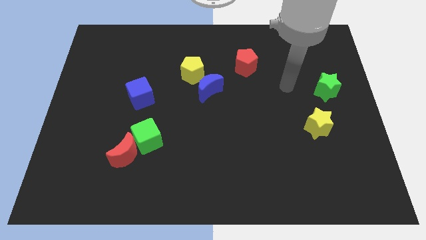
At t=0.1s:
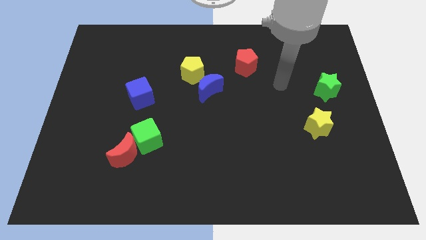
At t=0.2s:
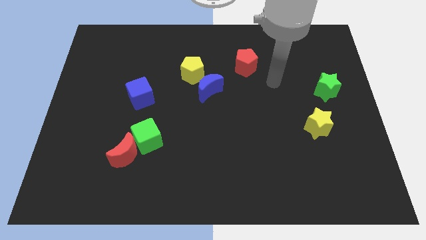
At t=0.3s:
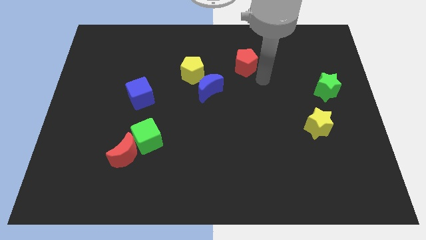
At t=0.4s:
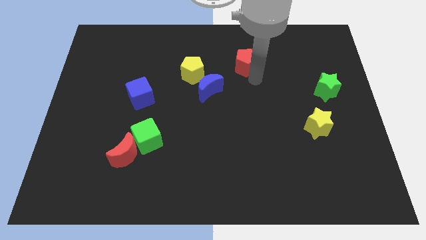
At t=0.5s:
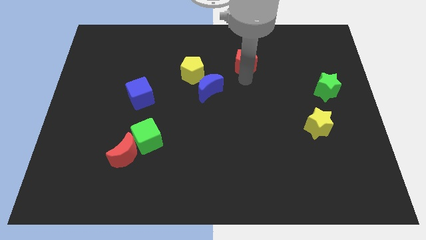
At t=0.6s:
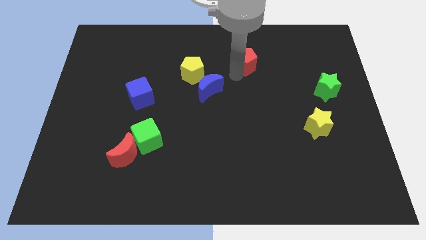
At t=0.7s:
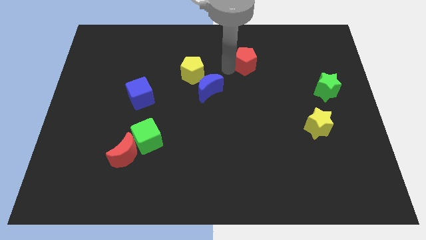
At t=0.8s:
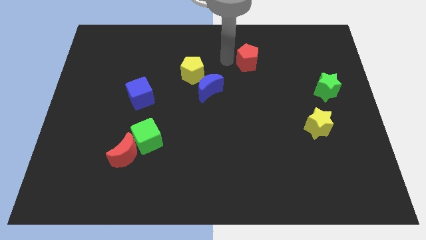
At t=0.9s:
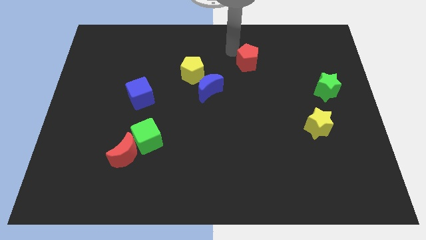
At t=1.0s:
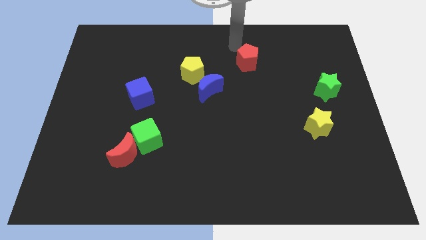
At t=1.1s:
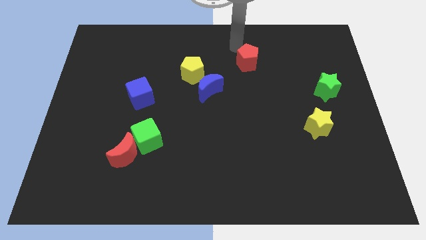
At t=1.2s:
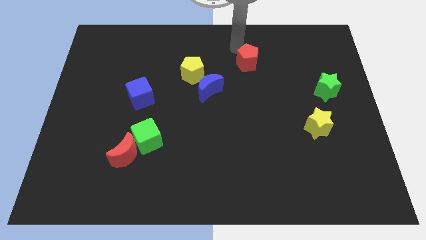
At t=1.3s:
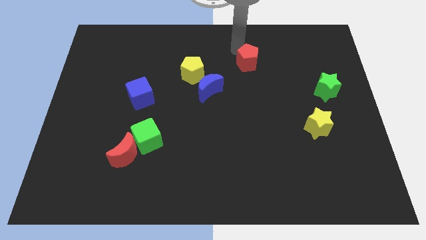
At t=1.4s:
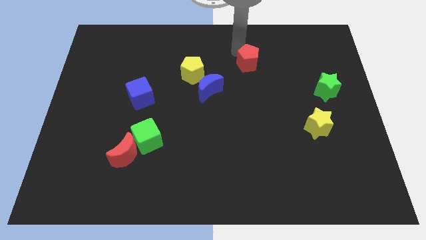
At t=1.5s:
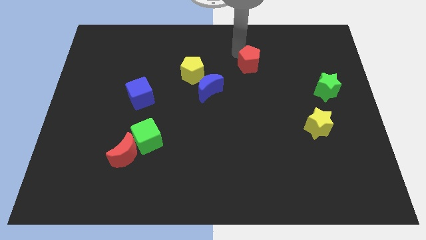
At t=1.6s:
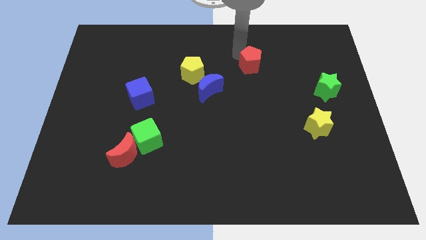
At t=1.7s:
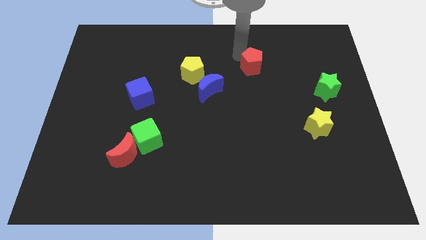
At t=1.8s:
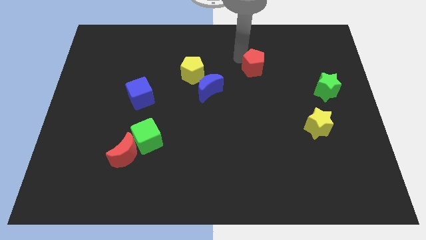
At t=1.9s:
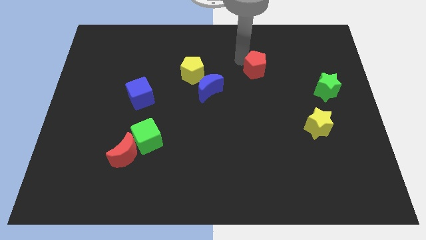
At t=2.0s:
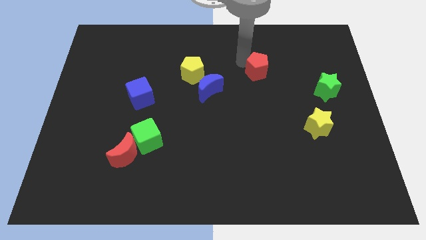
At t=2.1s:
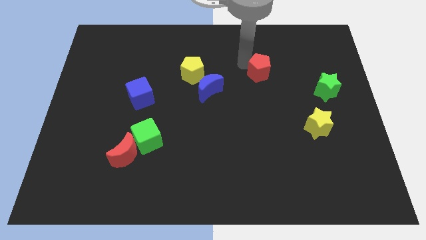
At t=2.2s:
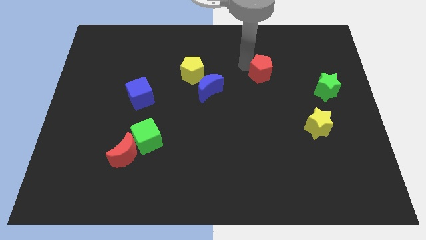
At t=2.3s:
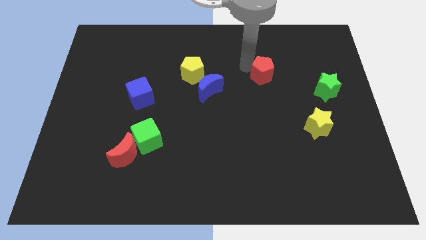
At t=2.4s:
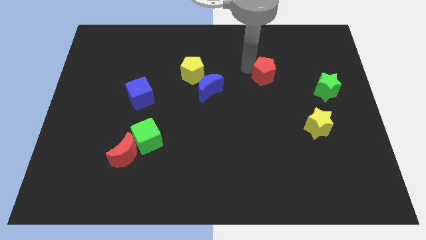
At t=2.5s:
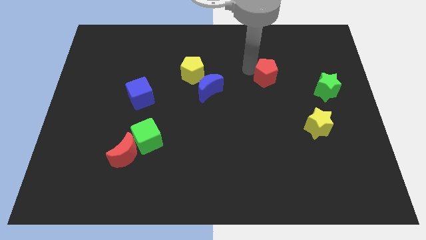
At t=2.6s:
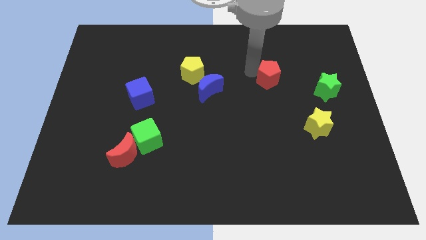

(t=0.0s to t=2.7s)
push the red pentagon down and to the right a little bit

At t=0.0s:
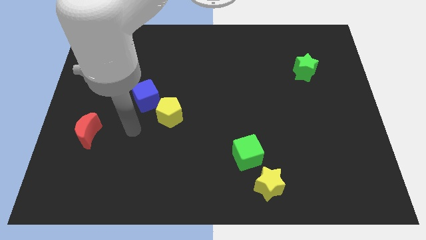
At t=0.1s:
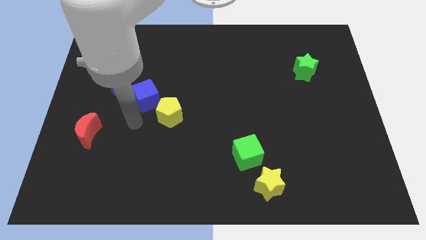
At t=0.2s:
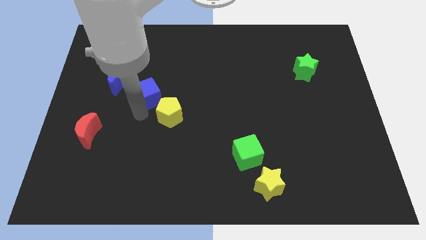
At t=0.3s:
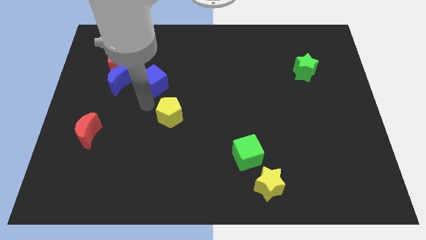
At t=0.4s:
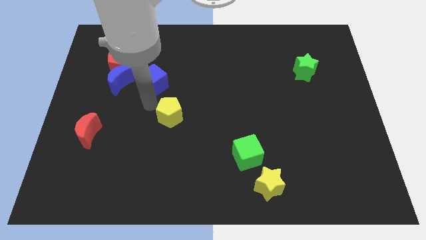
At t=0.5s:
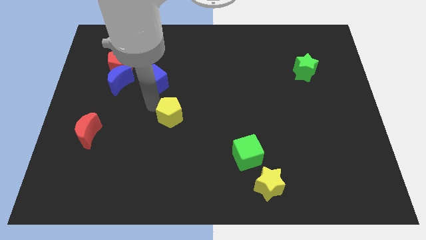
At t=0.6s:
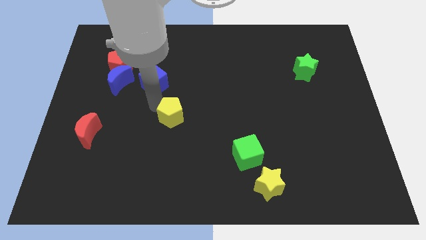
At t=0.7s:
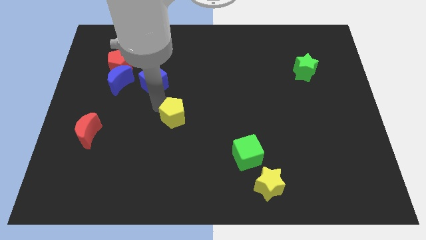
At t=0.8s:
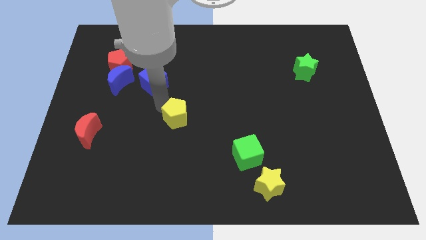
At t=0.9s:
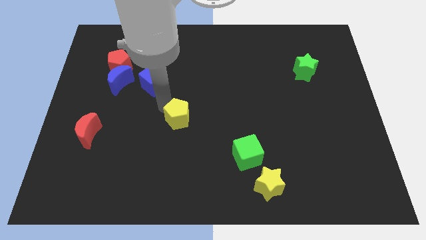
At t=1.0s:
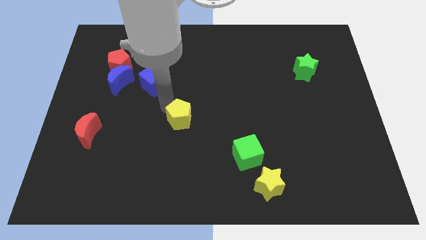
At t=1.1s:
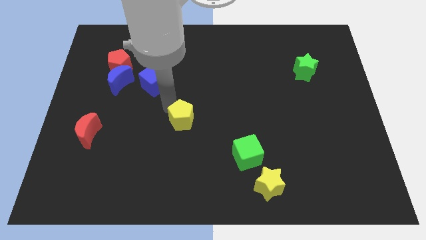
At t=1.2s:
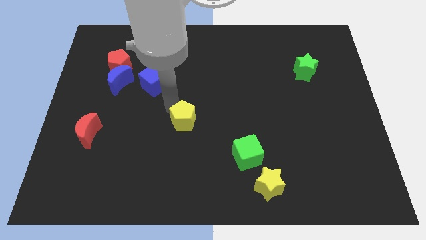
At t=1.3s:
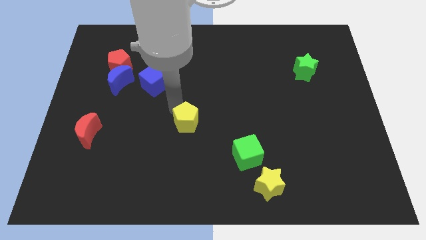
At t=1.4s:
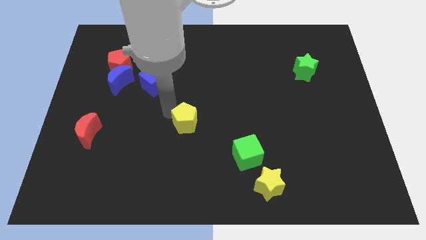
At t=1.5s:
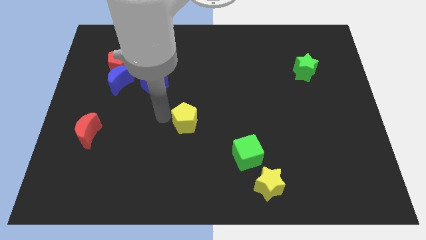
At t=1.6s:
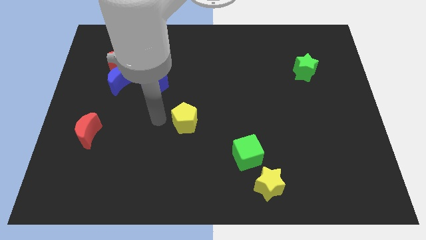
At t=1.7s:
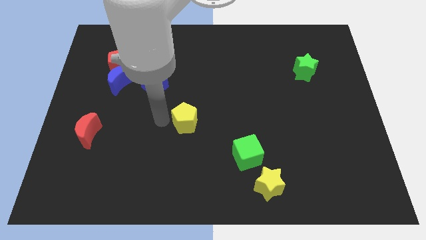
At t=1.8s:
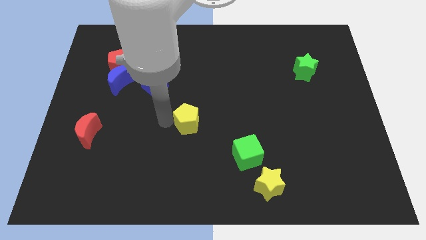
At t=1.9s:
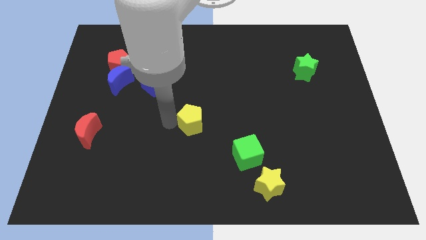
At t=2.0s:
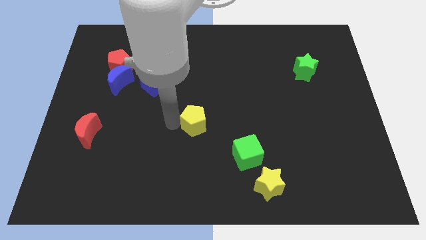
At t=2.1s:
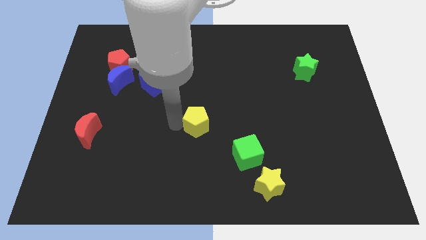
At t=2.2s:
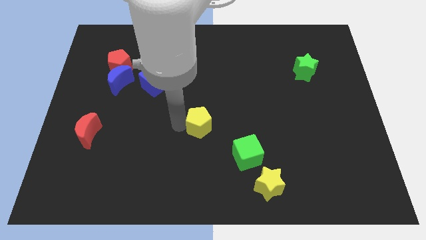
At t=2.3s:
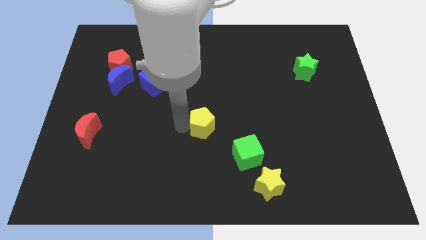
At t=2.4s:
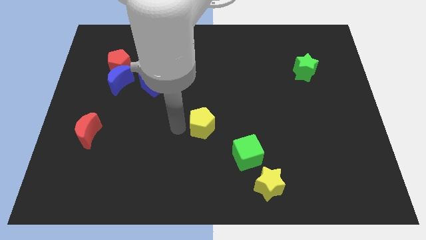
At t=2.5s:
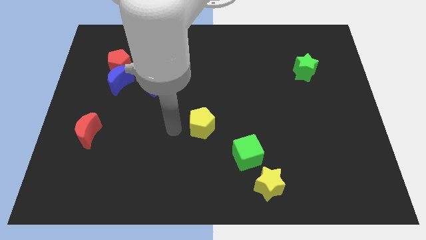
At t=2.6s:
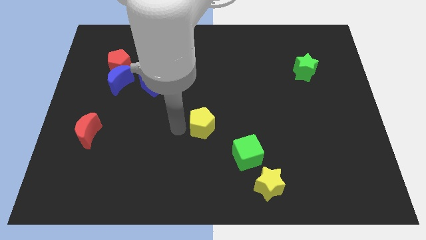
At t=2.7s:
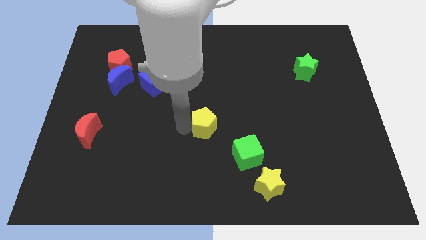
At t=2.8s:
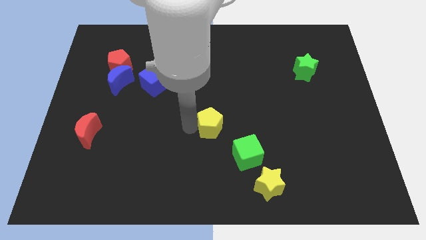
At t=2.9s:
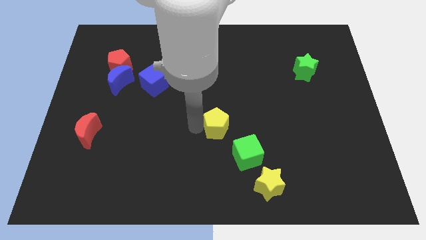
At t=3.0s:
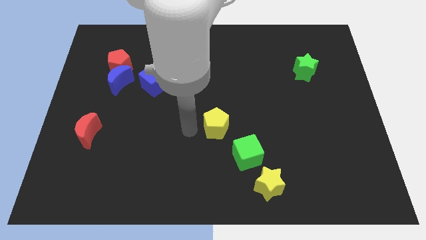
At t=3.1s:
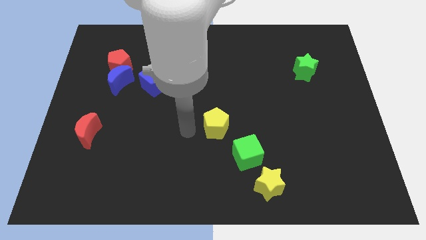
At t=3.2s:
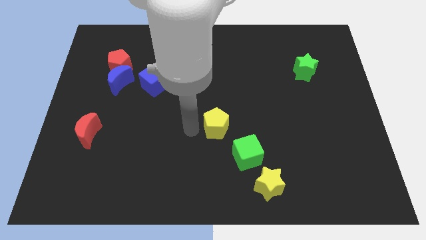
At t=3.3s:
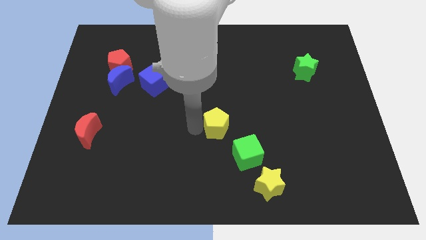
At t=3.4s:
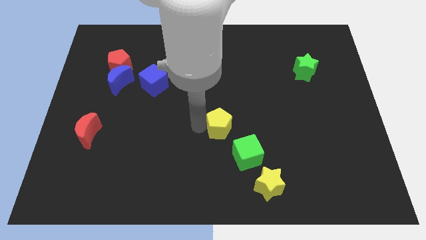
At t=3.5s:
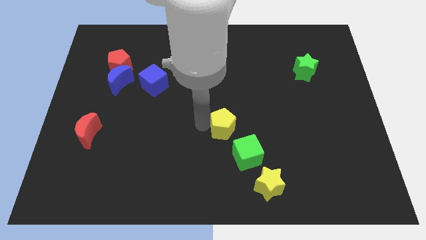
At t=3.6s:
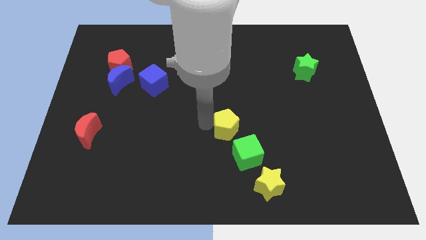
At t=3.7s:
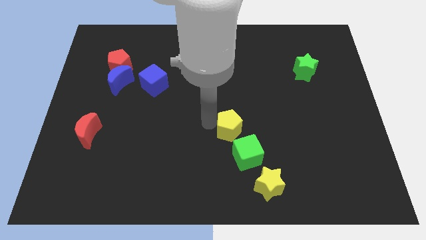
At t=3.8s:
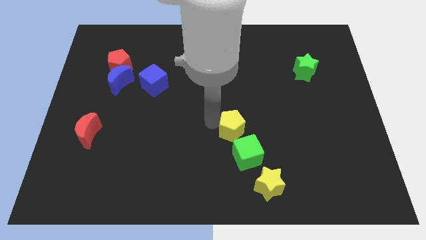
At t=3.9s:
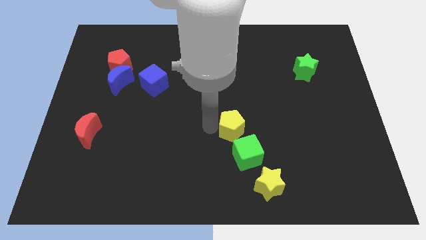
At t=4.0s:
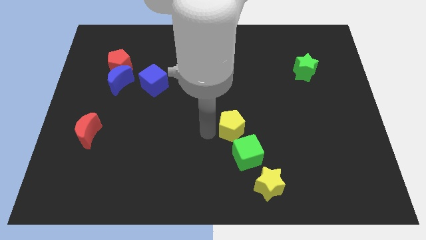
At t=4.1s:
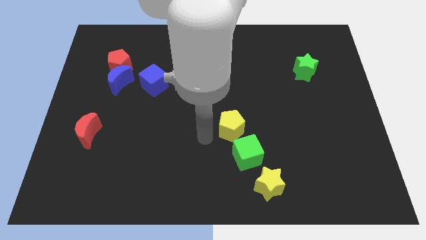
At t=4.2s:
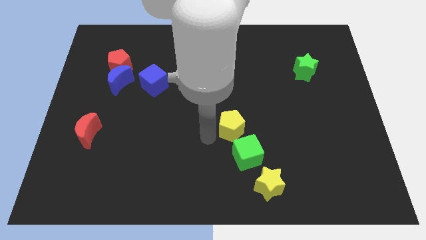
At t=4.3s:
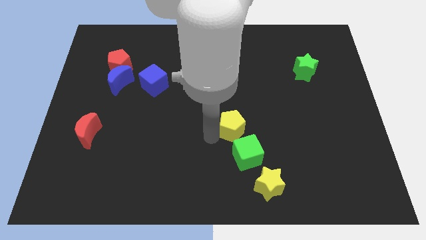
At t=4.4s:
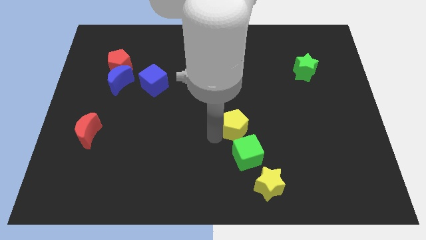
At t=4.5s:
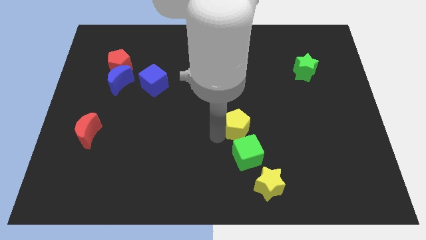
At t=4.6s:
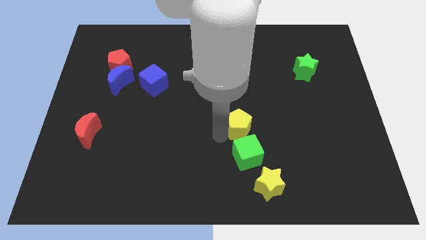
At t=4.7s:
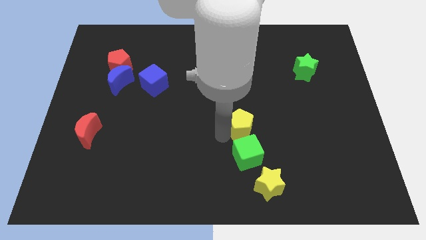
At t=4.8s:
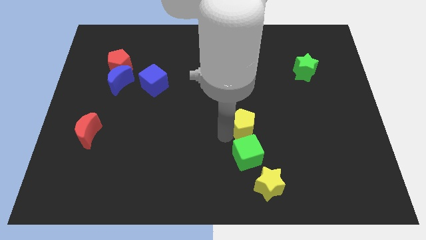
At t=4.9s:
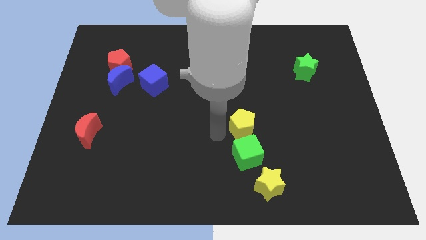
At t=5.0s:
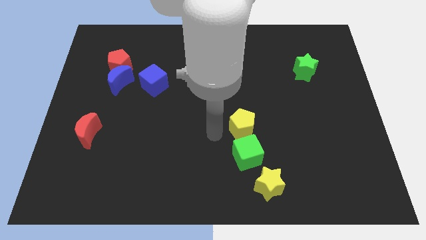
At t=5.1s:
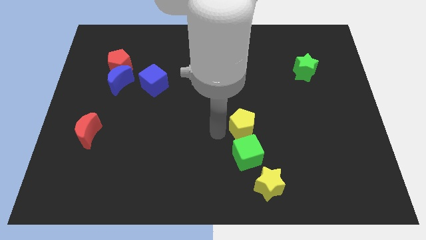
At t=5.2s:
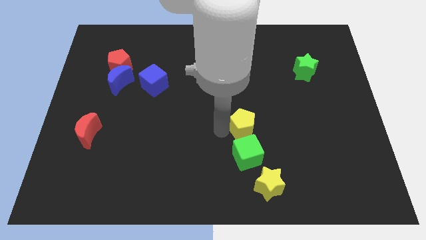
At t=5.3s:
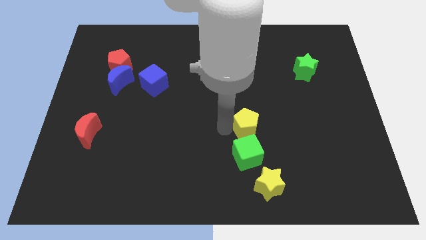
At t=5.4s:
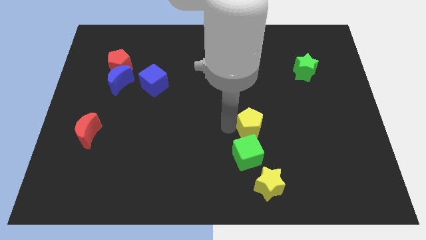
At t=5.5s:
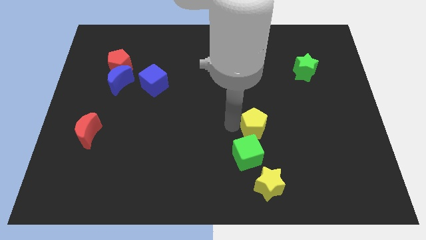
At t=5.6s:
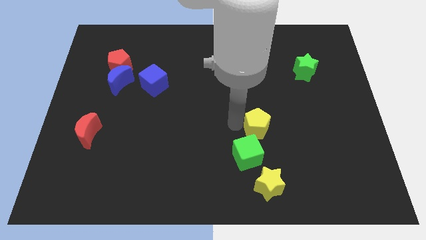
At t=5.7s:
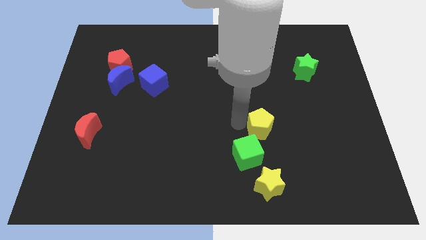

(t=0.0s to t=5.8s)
push the yellow pentagon to the right
